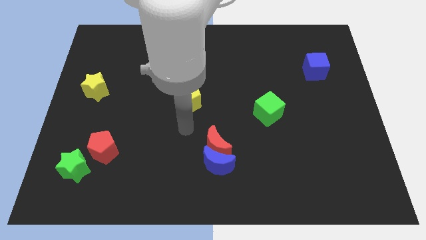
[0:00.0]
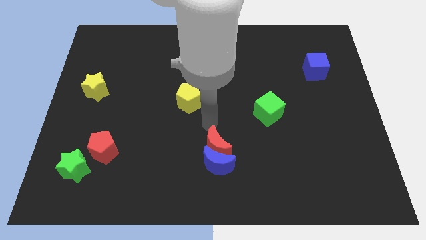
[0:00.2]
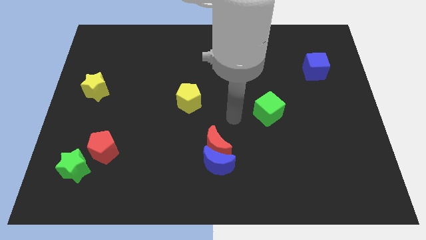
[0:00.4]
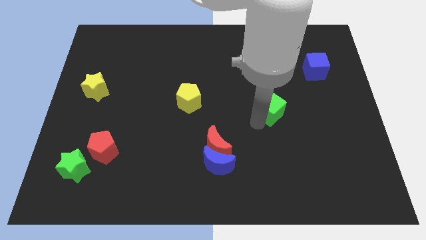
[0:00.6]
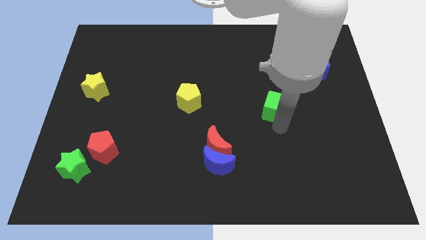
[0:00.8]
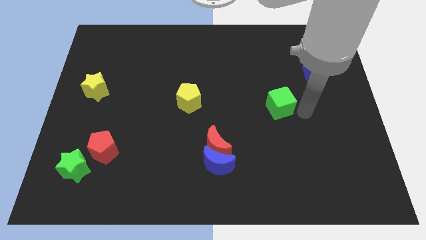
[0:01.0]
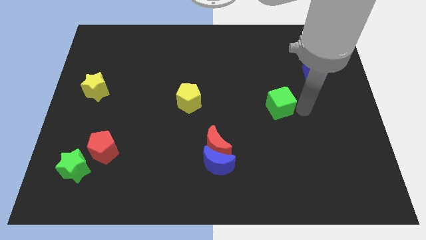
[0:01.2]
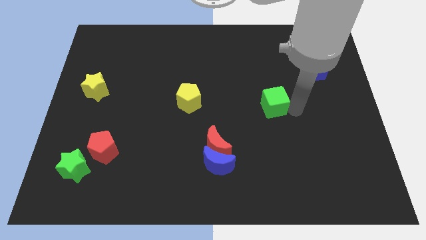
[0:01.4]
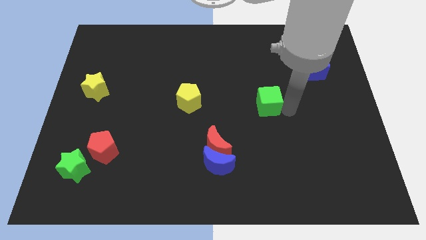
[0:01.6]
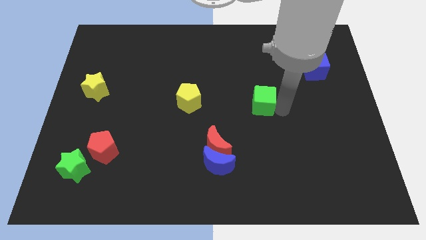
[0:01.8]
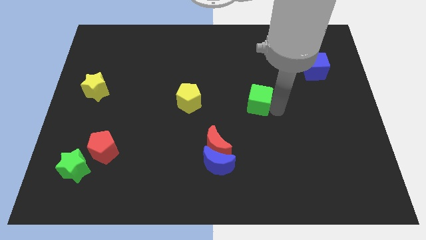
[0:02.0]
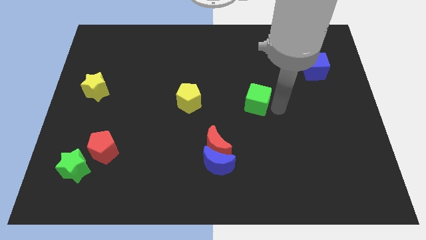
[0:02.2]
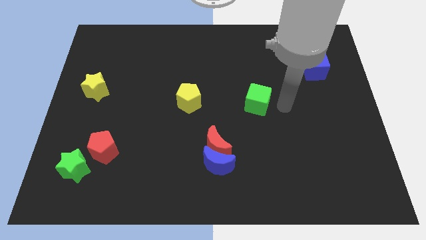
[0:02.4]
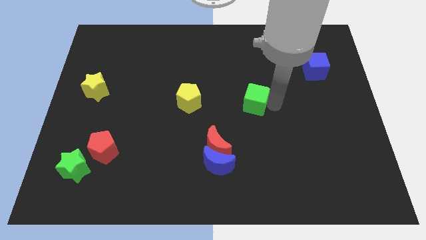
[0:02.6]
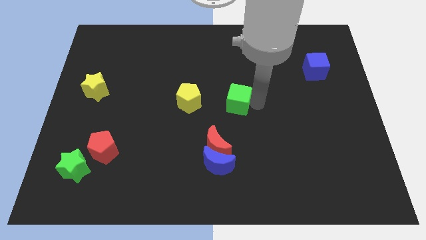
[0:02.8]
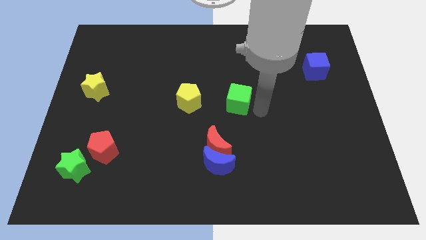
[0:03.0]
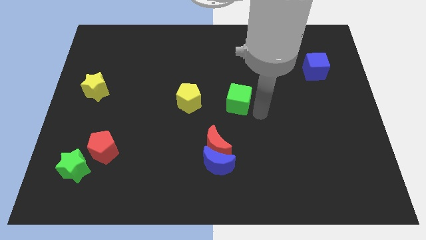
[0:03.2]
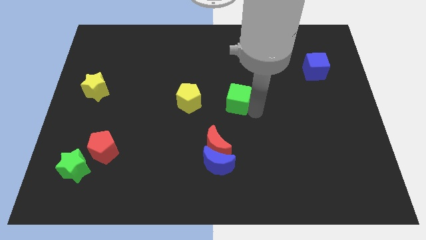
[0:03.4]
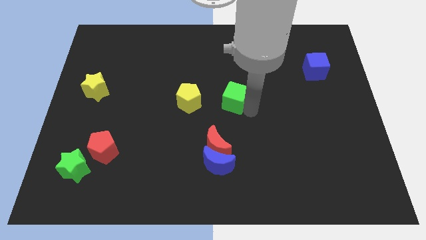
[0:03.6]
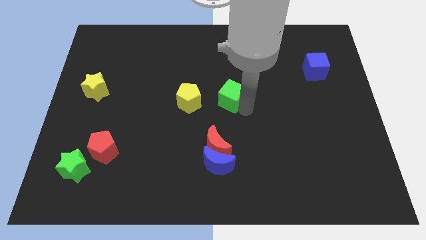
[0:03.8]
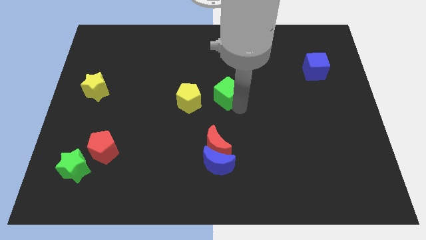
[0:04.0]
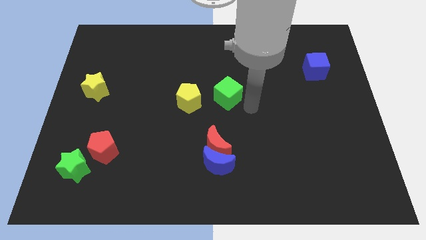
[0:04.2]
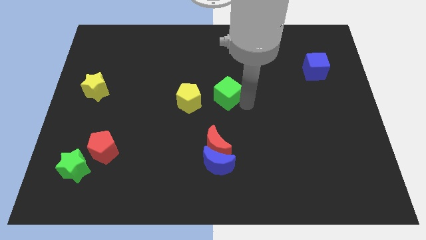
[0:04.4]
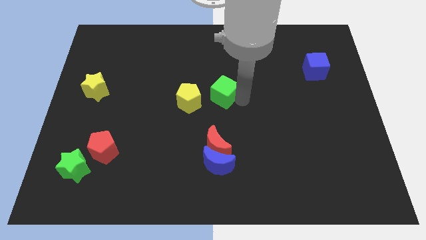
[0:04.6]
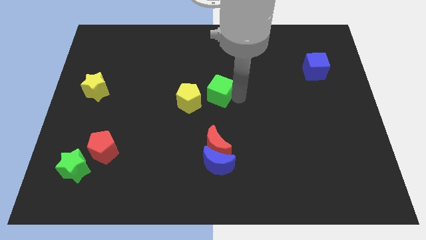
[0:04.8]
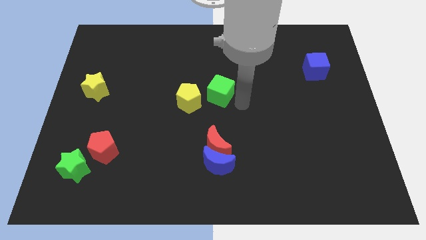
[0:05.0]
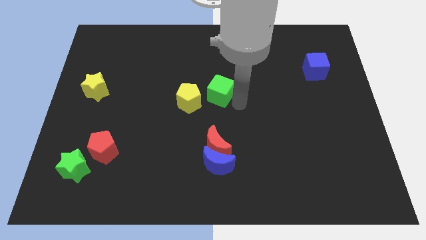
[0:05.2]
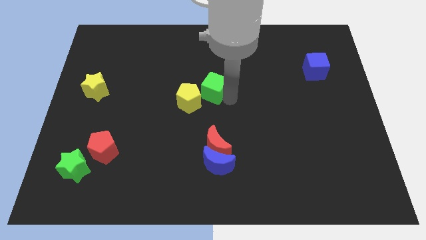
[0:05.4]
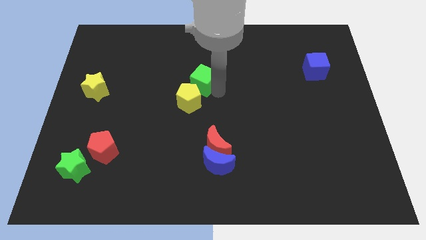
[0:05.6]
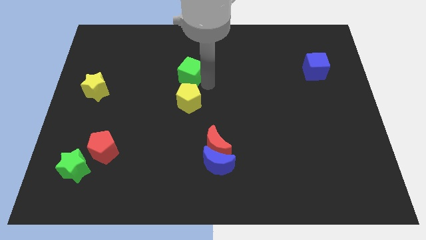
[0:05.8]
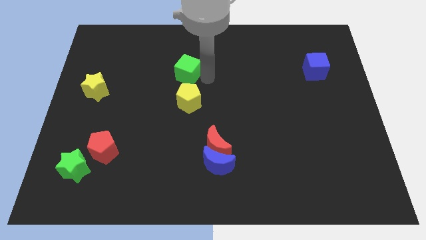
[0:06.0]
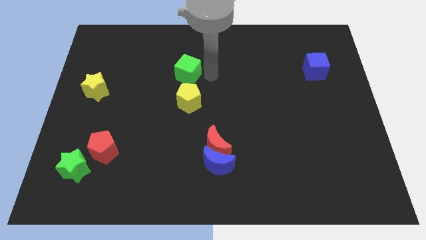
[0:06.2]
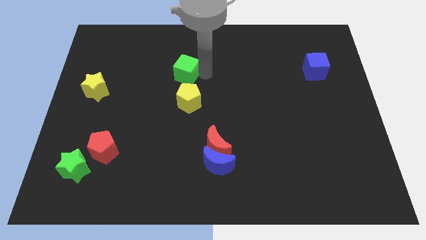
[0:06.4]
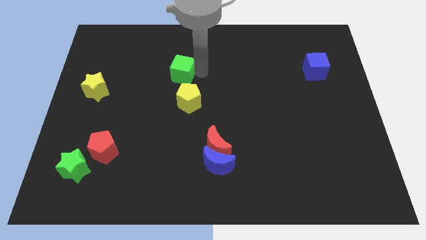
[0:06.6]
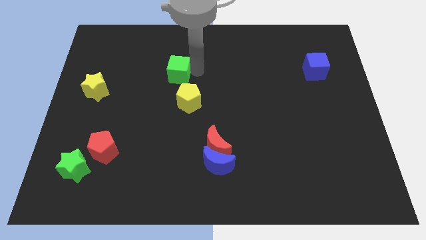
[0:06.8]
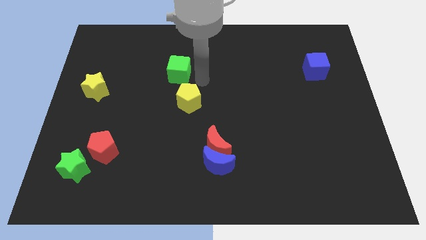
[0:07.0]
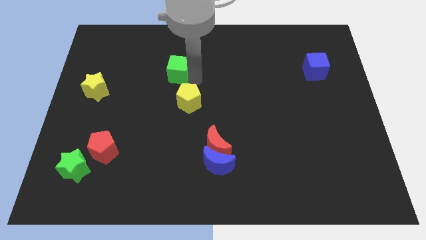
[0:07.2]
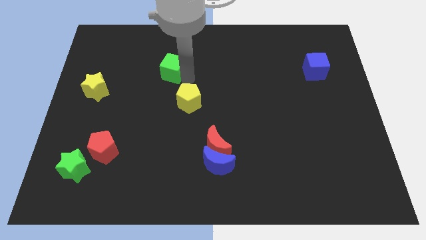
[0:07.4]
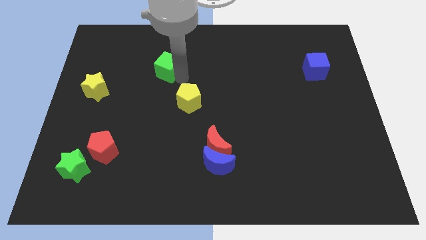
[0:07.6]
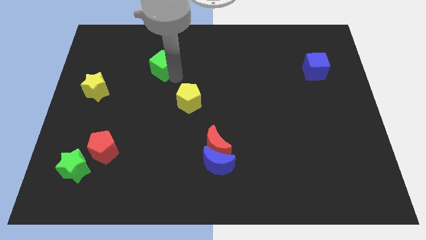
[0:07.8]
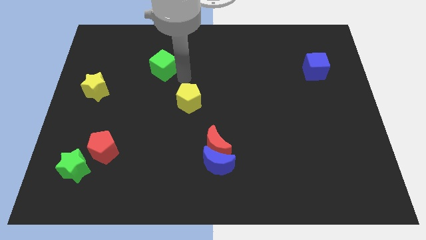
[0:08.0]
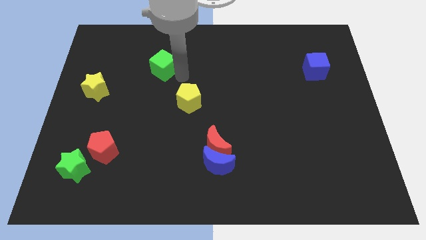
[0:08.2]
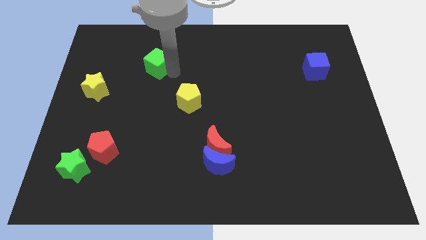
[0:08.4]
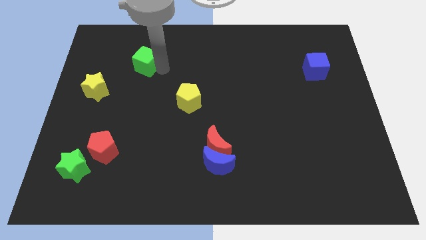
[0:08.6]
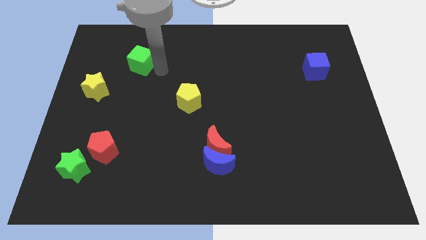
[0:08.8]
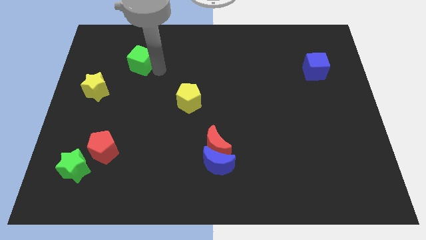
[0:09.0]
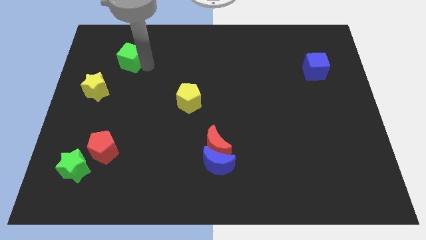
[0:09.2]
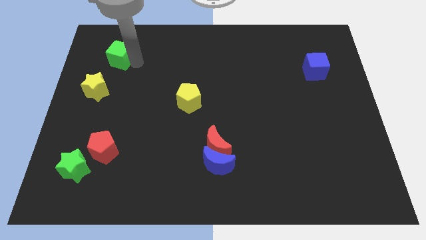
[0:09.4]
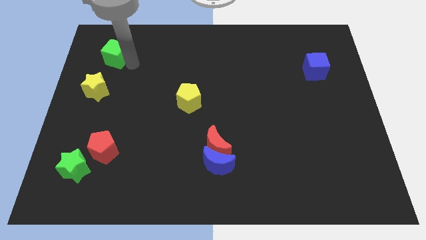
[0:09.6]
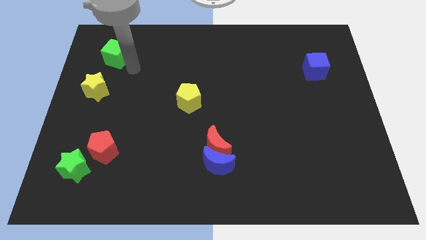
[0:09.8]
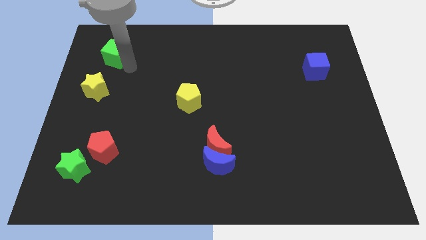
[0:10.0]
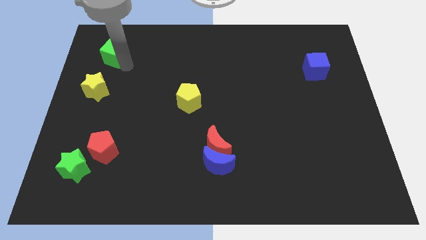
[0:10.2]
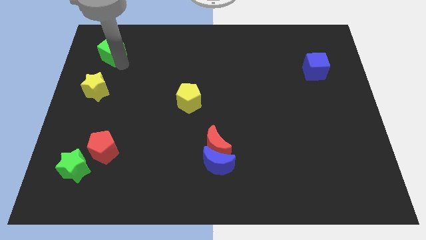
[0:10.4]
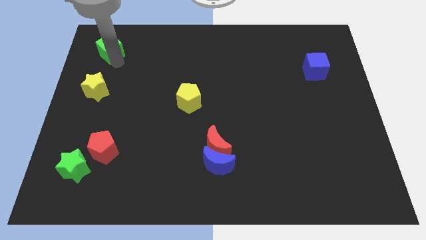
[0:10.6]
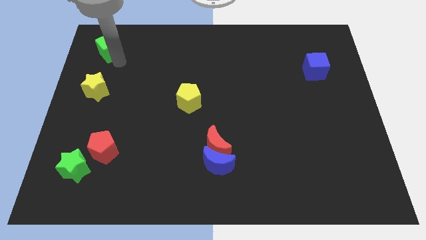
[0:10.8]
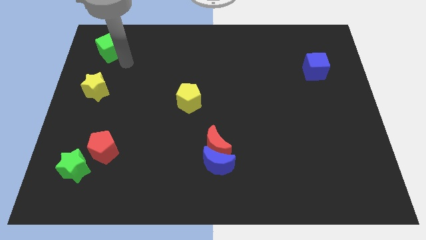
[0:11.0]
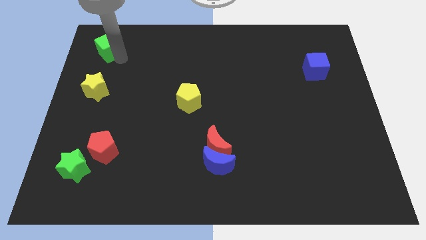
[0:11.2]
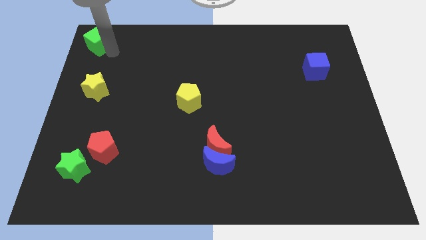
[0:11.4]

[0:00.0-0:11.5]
push the green cube to the upper left corner
